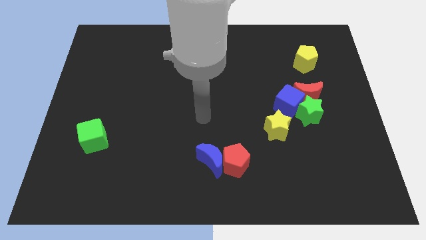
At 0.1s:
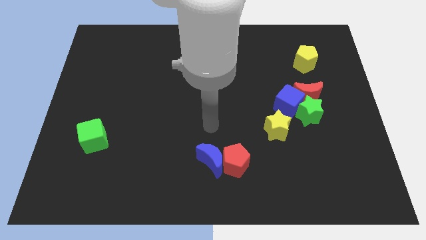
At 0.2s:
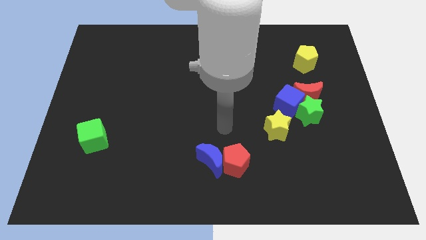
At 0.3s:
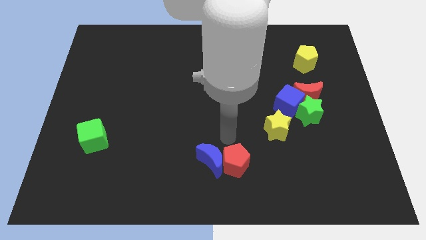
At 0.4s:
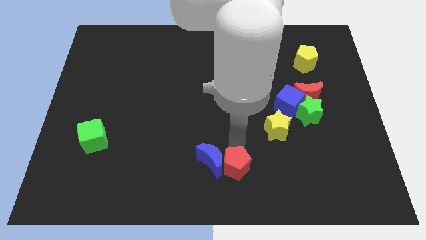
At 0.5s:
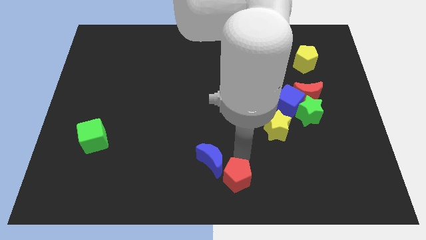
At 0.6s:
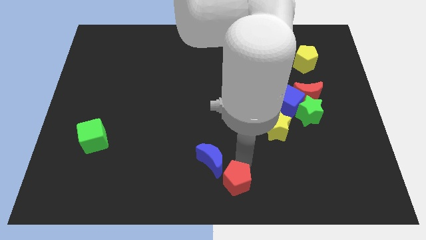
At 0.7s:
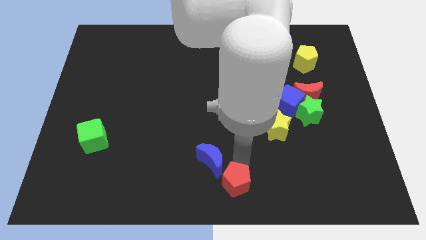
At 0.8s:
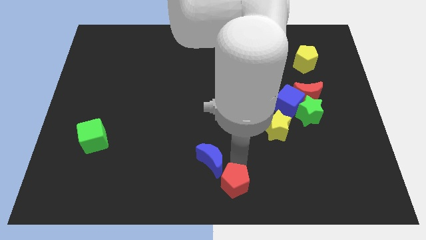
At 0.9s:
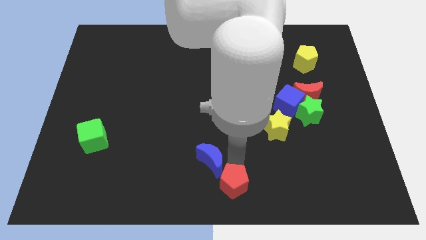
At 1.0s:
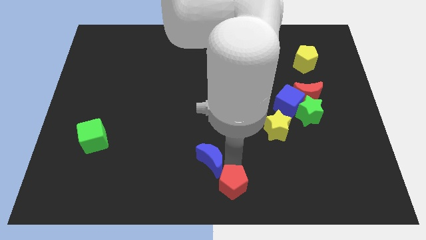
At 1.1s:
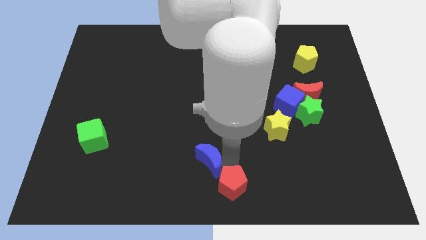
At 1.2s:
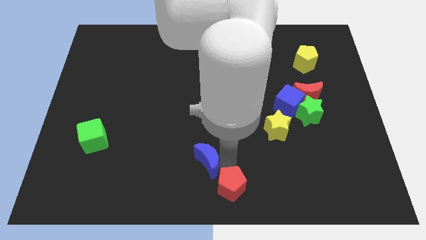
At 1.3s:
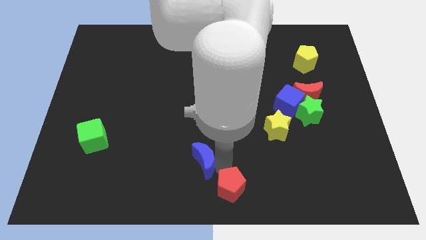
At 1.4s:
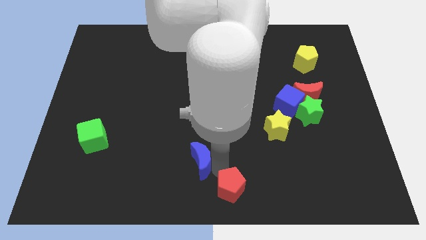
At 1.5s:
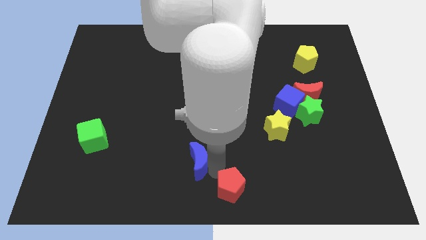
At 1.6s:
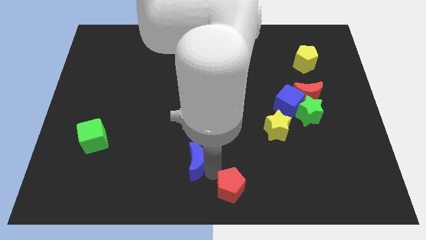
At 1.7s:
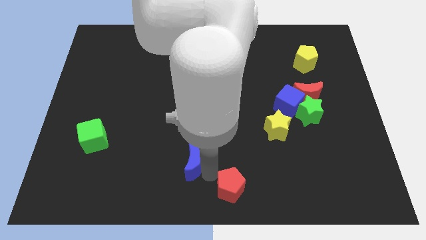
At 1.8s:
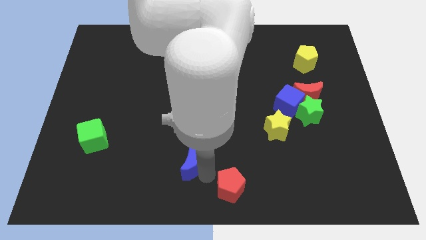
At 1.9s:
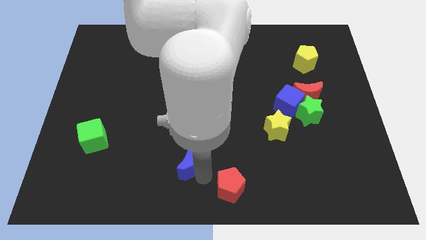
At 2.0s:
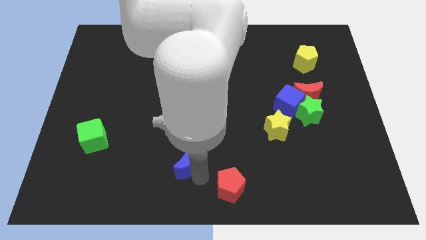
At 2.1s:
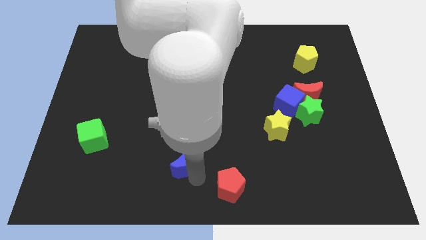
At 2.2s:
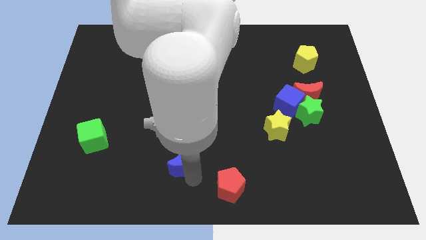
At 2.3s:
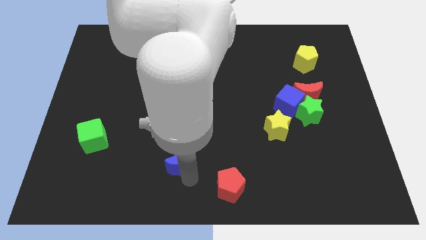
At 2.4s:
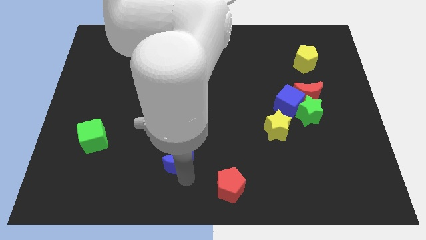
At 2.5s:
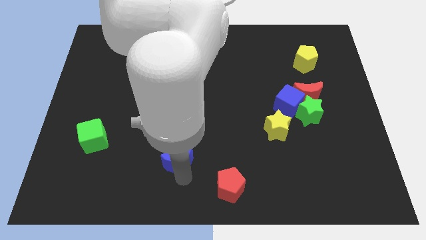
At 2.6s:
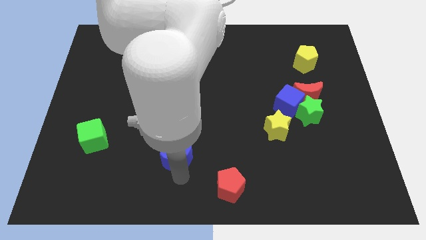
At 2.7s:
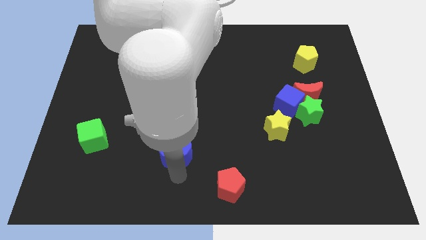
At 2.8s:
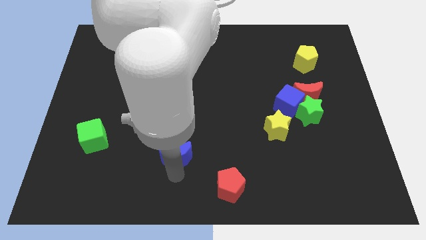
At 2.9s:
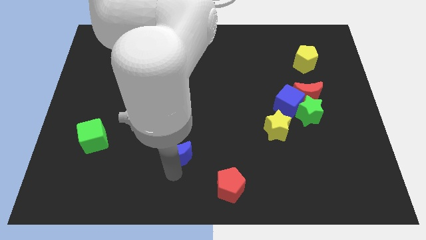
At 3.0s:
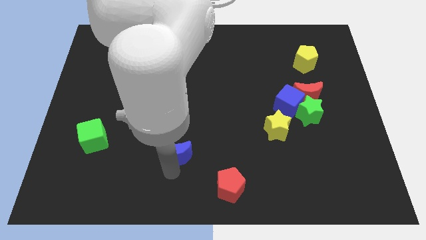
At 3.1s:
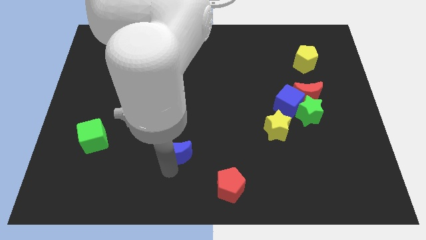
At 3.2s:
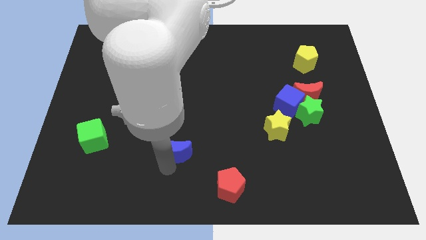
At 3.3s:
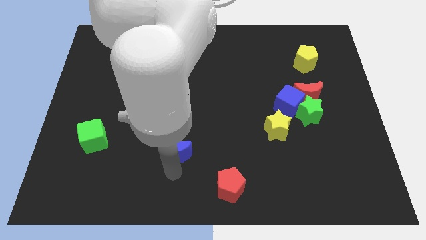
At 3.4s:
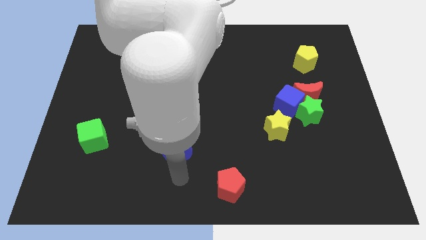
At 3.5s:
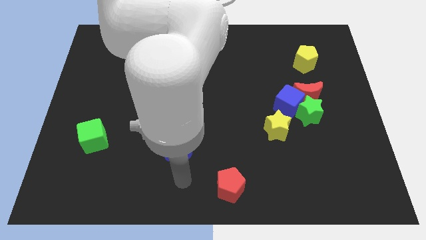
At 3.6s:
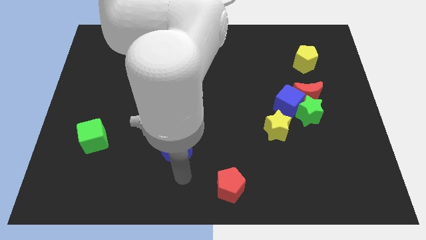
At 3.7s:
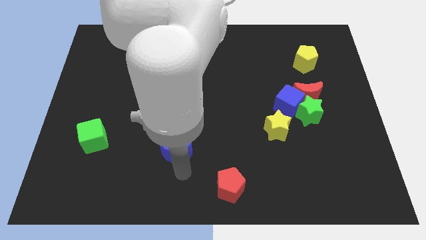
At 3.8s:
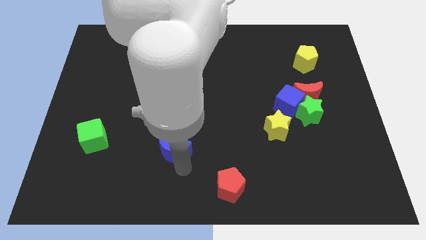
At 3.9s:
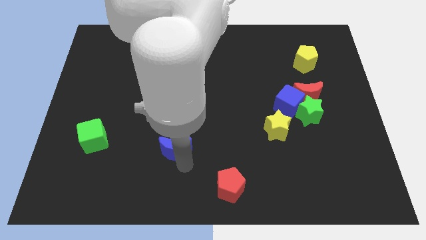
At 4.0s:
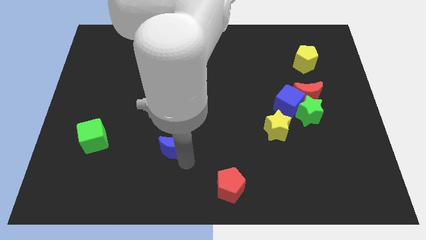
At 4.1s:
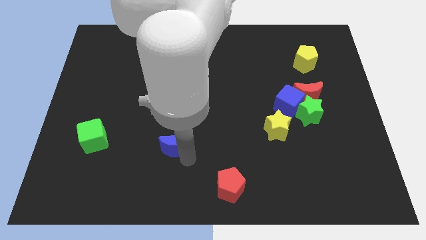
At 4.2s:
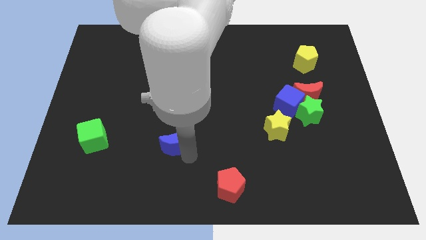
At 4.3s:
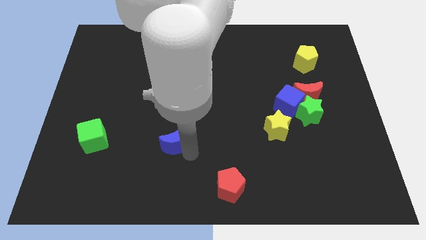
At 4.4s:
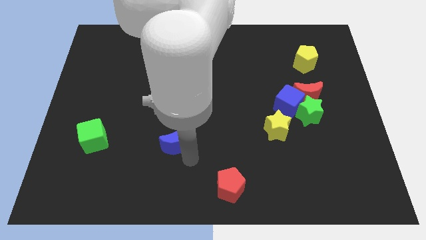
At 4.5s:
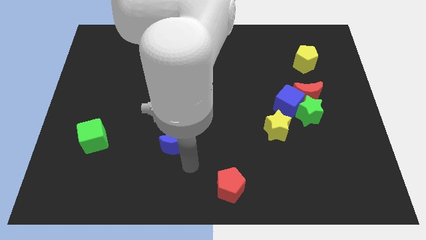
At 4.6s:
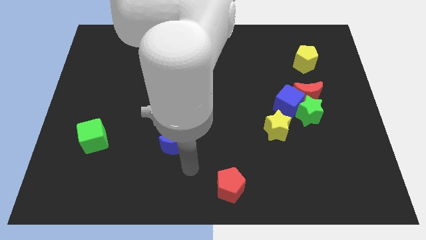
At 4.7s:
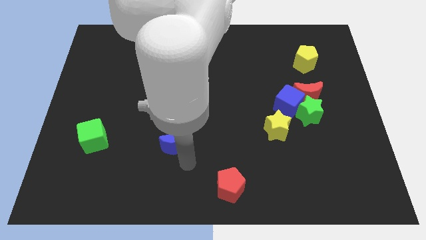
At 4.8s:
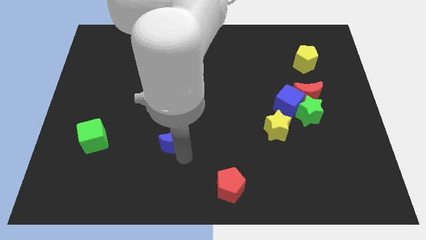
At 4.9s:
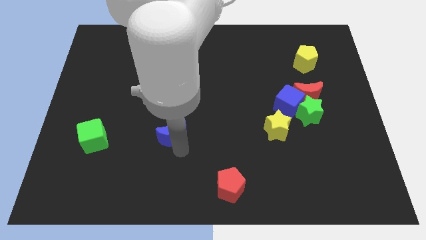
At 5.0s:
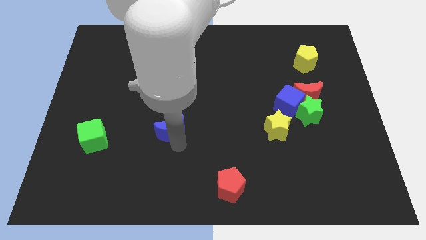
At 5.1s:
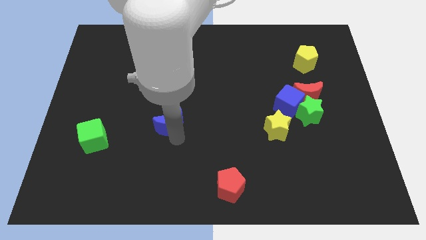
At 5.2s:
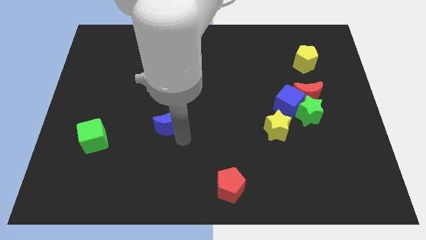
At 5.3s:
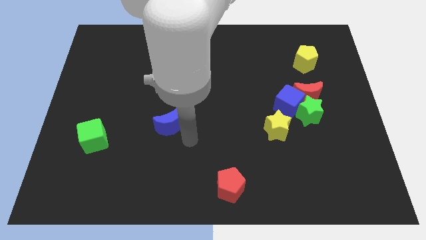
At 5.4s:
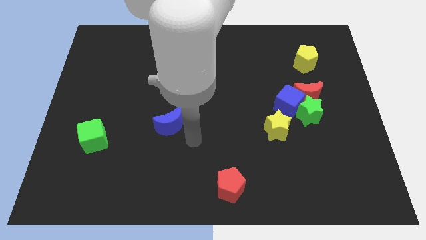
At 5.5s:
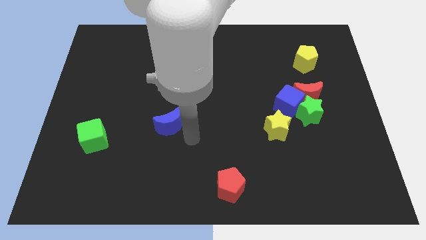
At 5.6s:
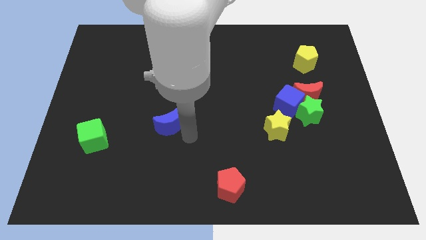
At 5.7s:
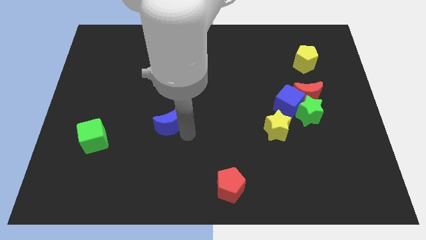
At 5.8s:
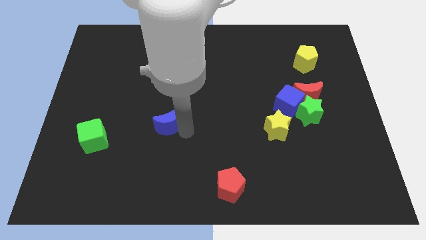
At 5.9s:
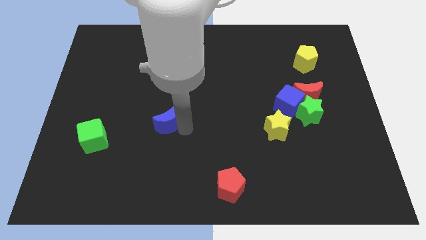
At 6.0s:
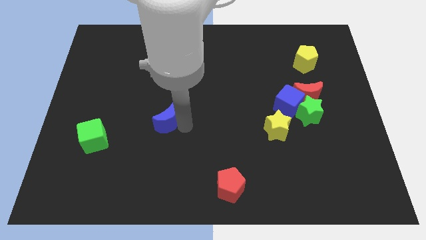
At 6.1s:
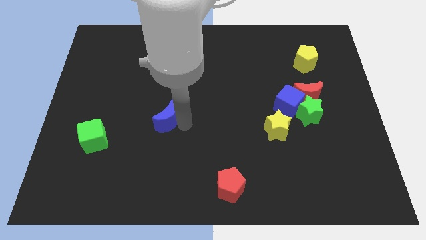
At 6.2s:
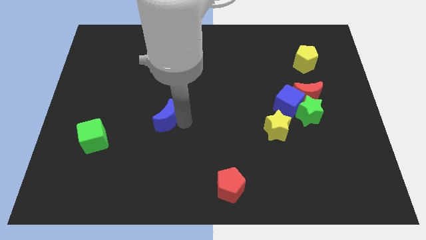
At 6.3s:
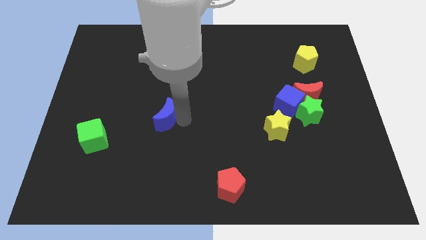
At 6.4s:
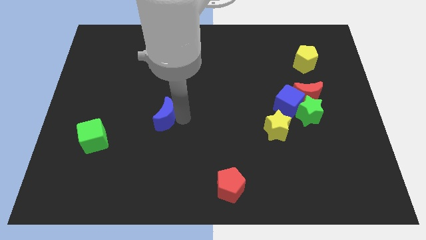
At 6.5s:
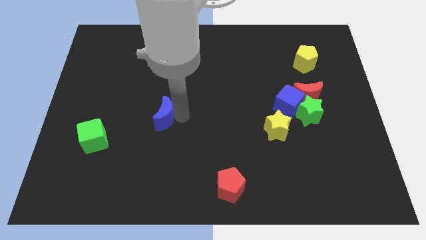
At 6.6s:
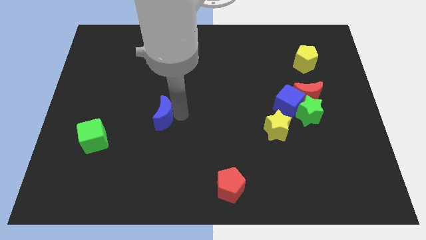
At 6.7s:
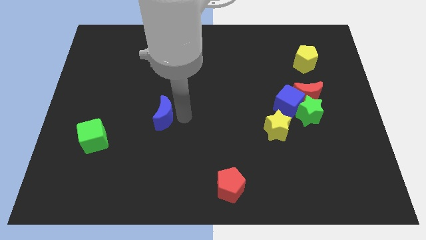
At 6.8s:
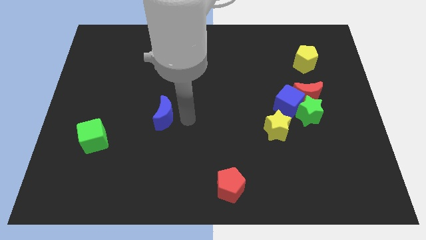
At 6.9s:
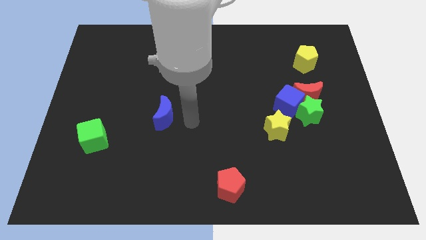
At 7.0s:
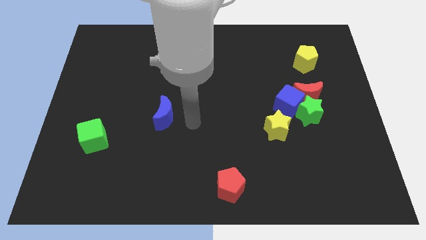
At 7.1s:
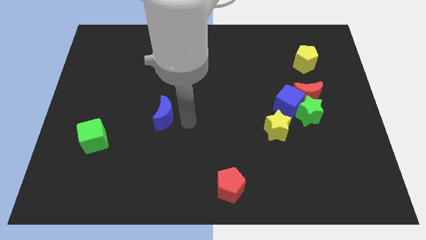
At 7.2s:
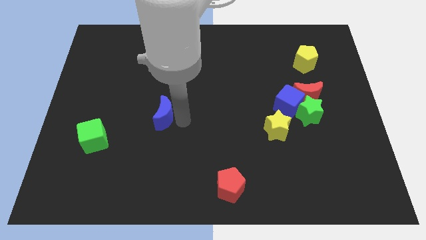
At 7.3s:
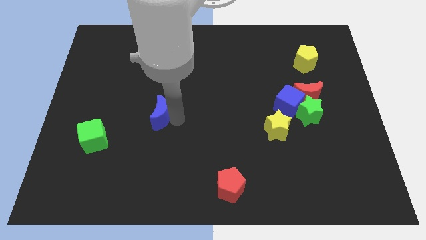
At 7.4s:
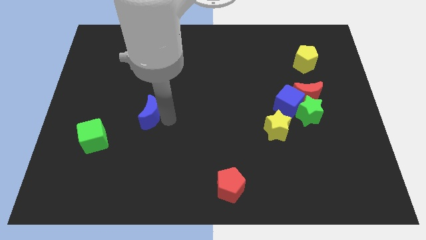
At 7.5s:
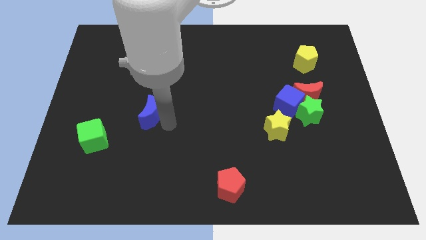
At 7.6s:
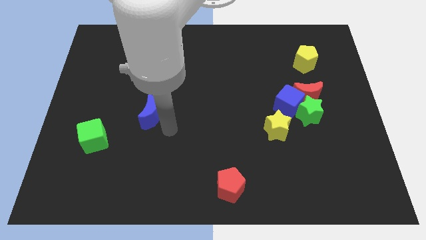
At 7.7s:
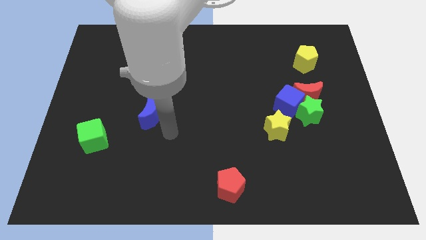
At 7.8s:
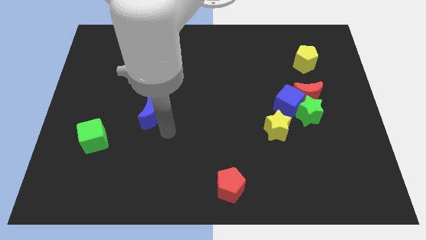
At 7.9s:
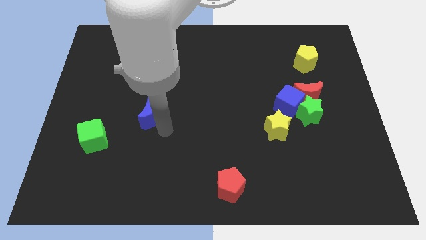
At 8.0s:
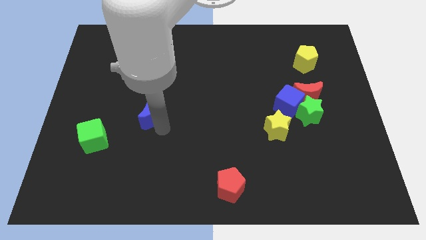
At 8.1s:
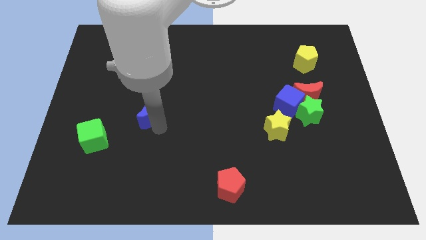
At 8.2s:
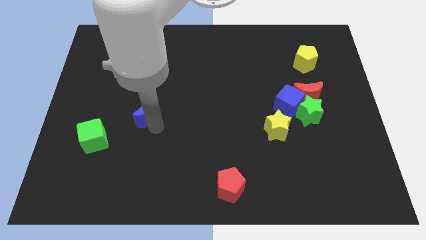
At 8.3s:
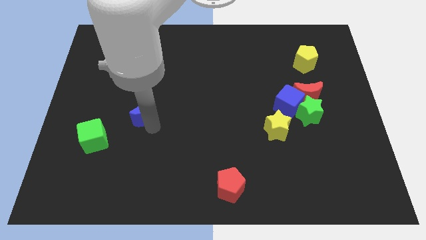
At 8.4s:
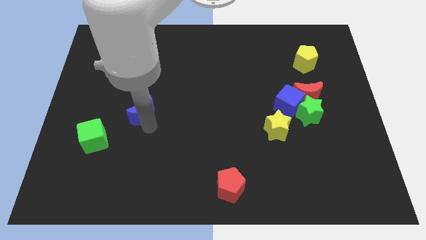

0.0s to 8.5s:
slide the blue moon diagonally up and to the left
